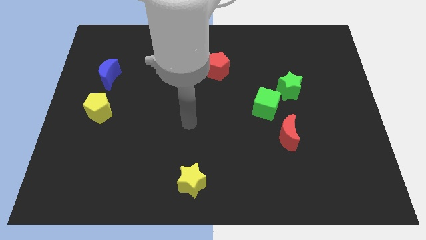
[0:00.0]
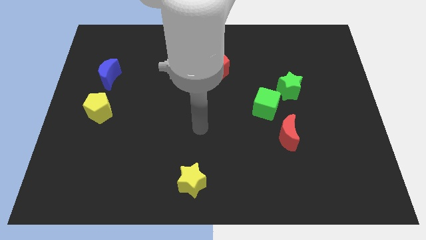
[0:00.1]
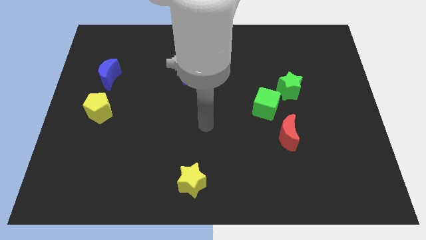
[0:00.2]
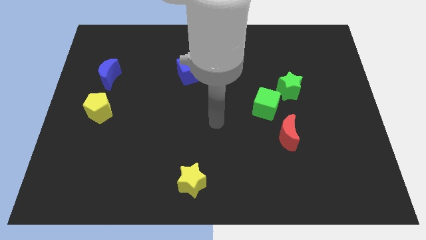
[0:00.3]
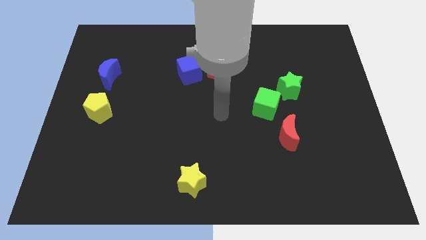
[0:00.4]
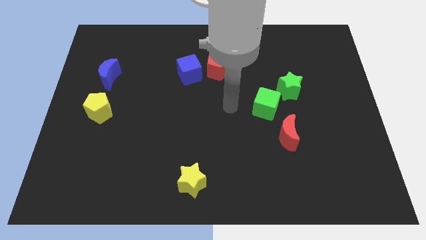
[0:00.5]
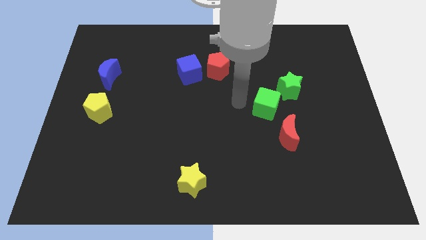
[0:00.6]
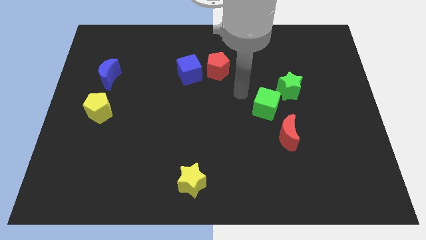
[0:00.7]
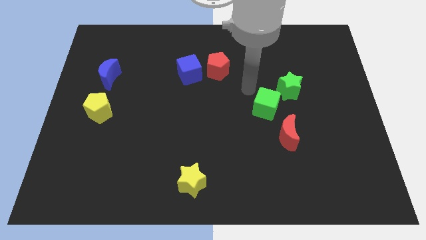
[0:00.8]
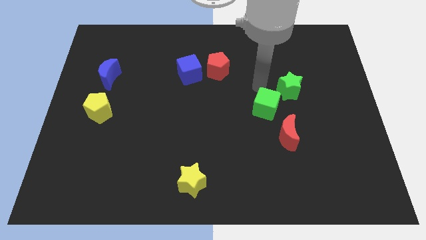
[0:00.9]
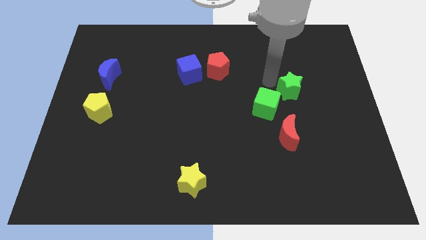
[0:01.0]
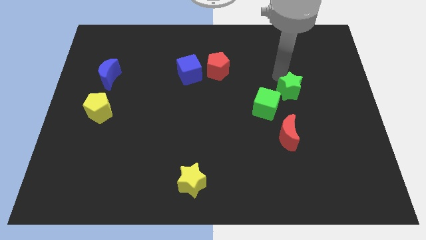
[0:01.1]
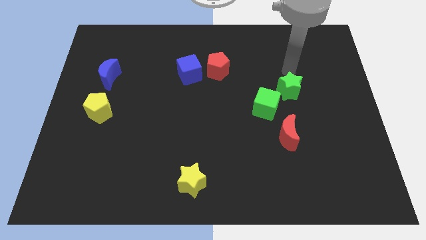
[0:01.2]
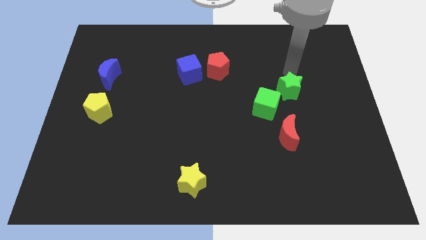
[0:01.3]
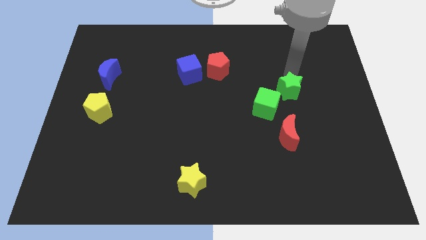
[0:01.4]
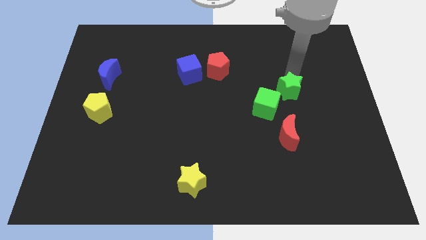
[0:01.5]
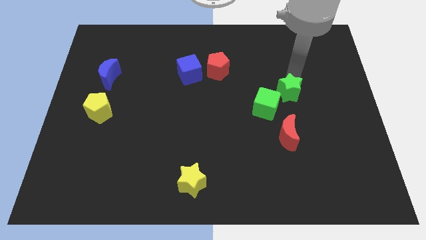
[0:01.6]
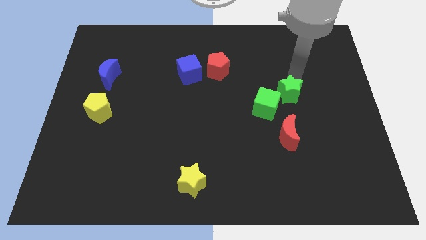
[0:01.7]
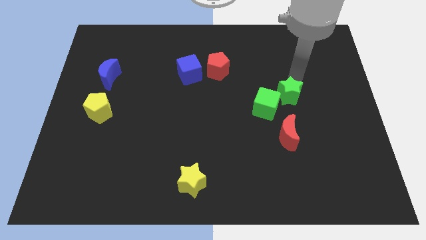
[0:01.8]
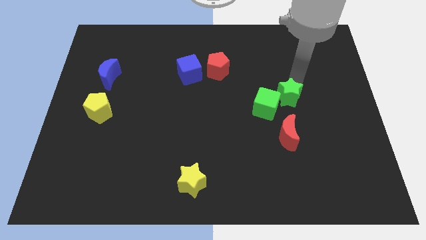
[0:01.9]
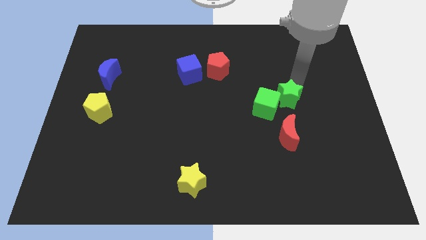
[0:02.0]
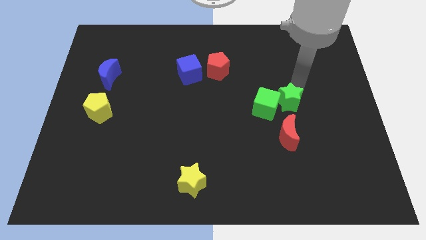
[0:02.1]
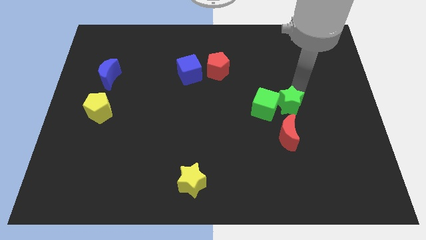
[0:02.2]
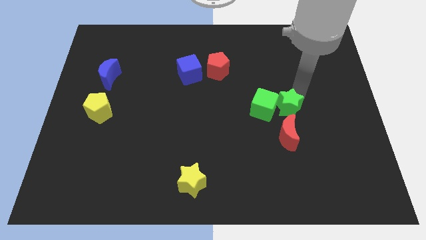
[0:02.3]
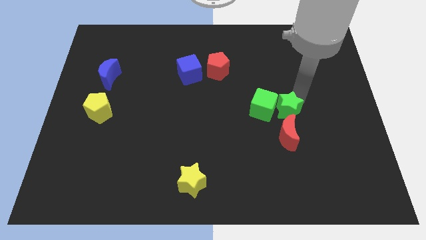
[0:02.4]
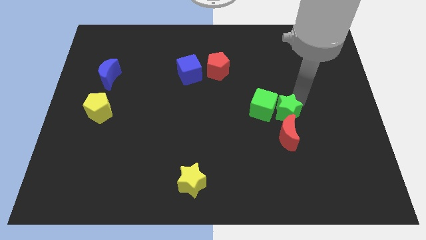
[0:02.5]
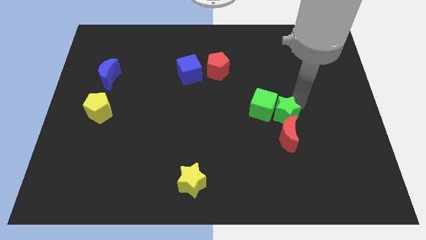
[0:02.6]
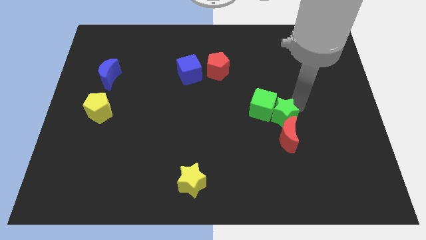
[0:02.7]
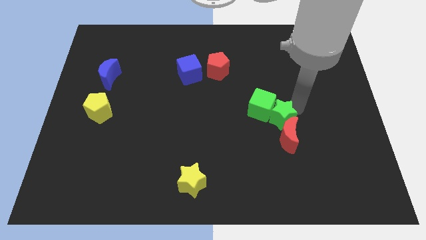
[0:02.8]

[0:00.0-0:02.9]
slightly slide the green star diagonally downwards and left

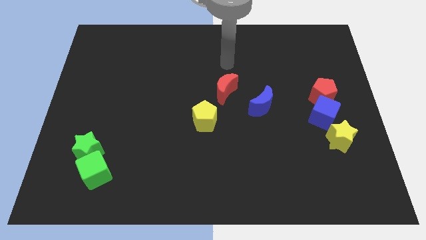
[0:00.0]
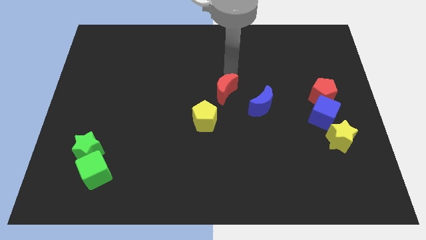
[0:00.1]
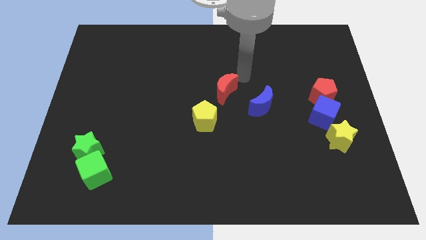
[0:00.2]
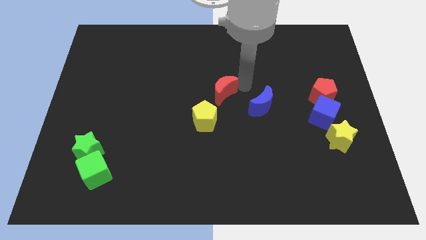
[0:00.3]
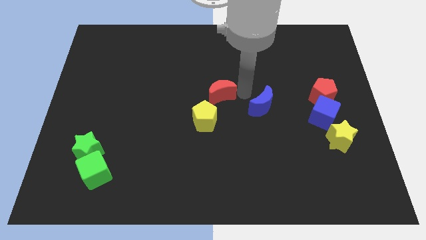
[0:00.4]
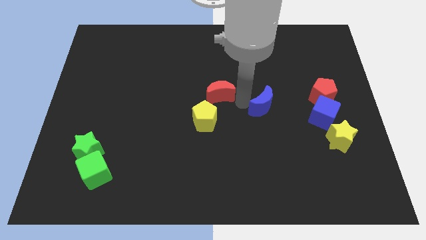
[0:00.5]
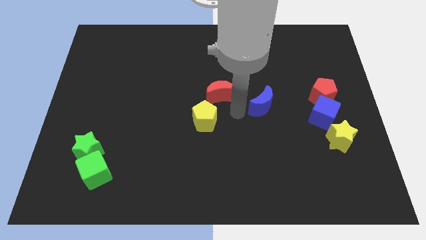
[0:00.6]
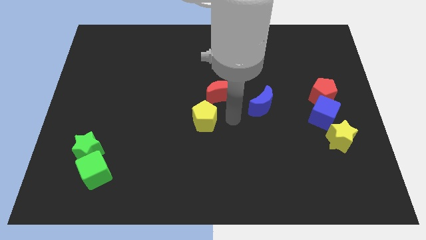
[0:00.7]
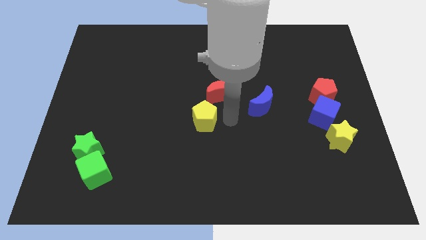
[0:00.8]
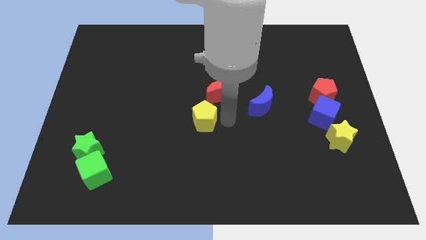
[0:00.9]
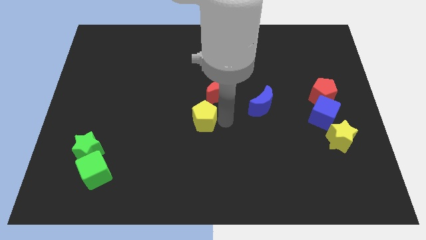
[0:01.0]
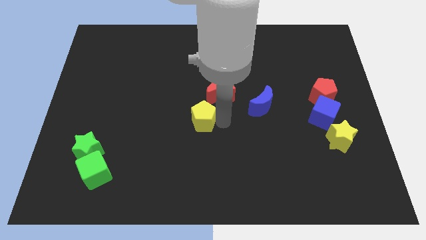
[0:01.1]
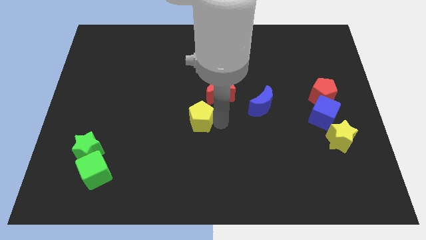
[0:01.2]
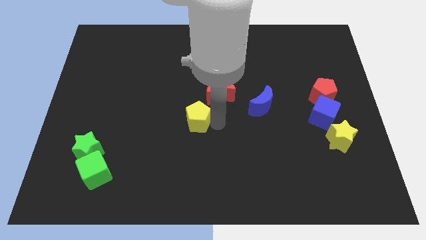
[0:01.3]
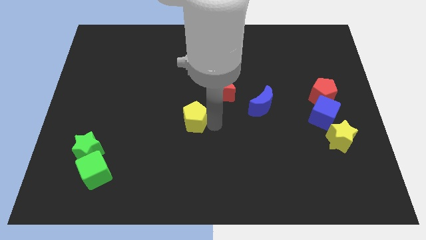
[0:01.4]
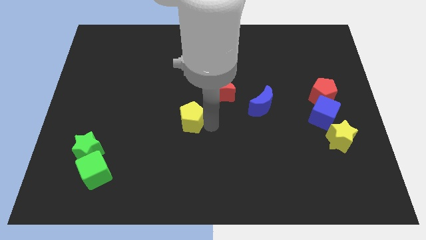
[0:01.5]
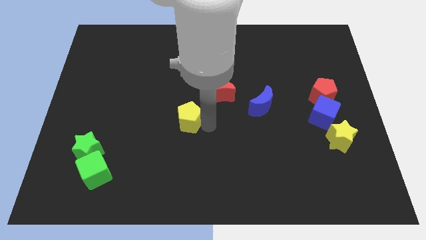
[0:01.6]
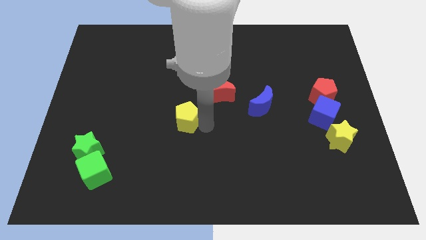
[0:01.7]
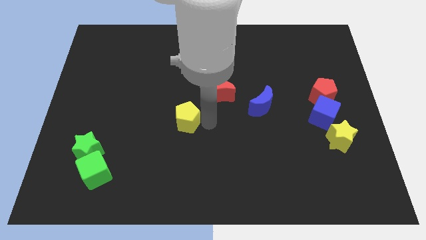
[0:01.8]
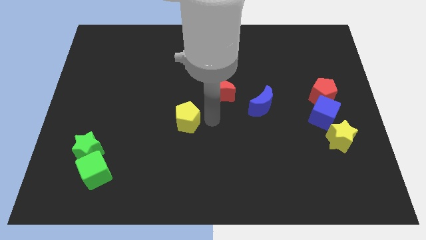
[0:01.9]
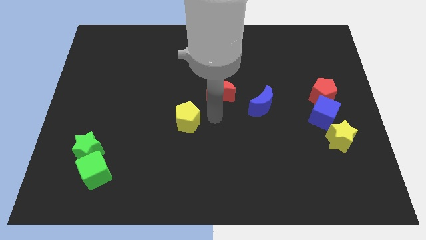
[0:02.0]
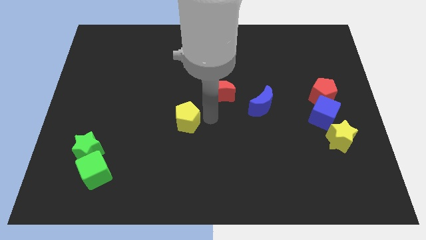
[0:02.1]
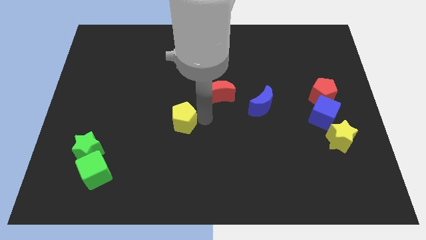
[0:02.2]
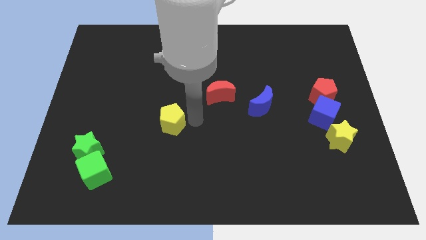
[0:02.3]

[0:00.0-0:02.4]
slightly push the yellow pentagon left

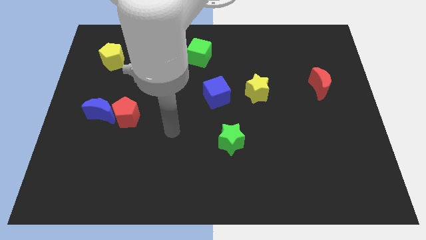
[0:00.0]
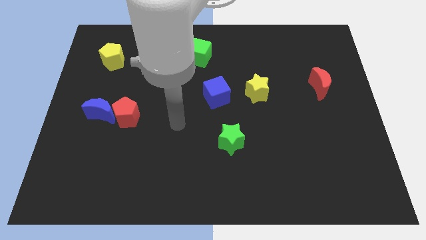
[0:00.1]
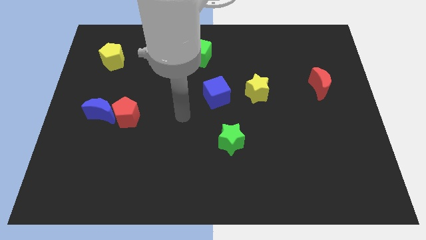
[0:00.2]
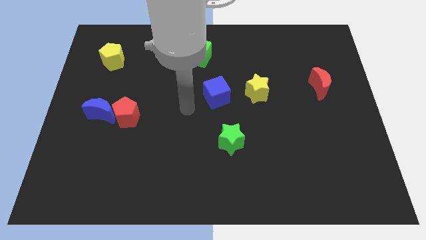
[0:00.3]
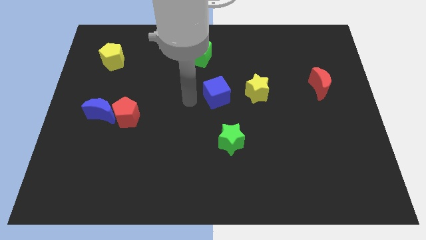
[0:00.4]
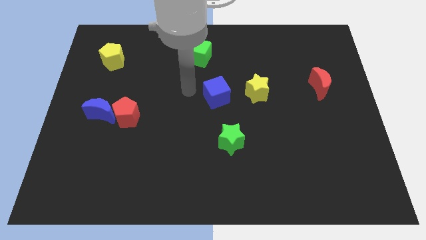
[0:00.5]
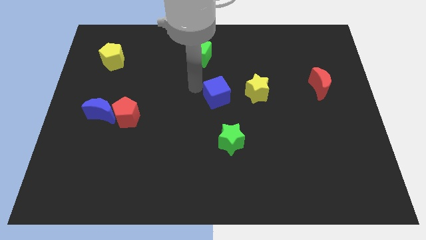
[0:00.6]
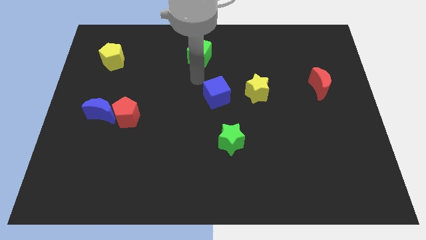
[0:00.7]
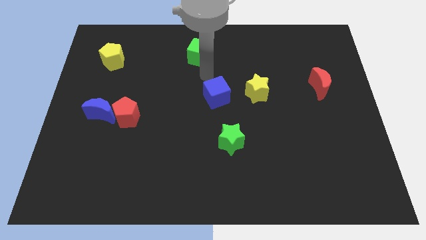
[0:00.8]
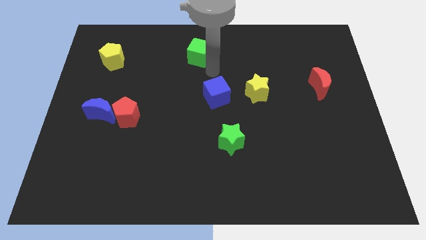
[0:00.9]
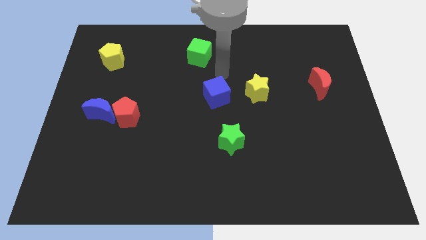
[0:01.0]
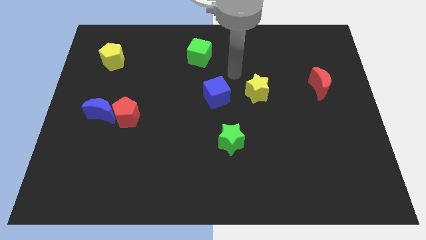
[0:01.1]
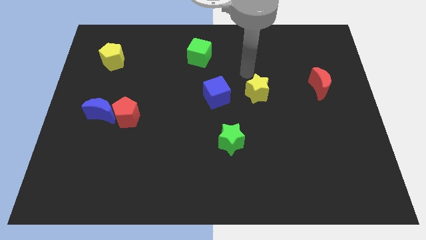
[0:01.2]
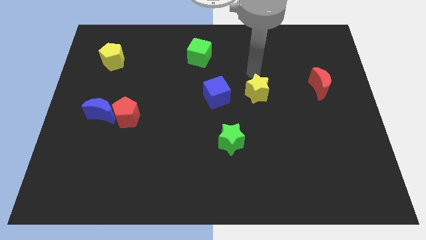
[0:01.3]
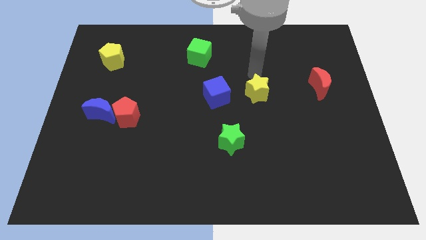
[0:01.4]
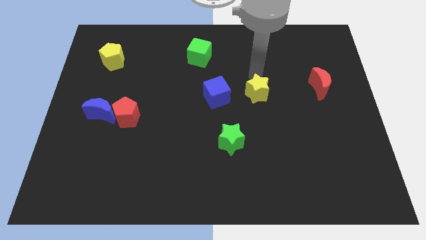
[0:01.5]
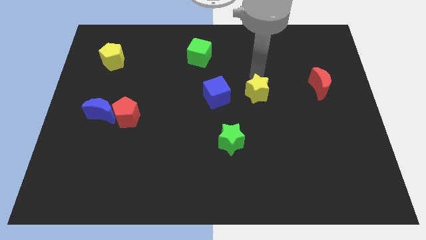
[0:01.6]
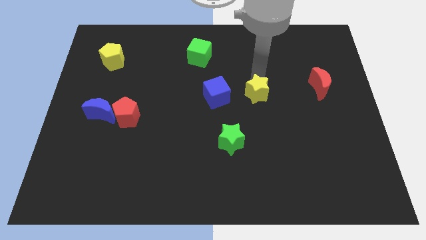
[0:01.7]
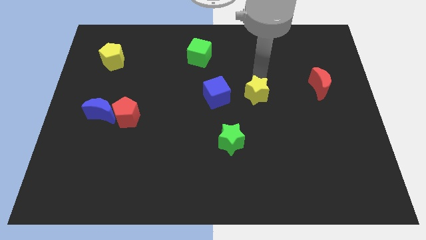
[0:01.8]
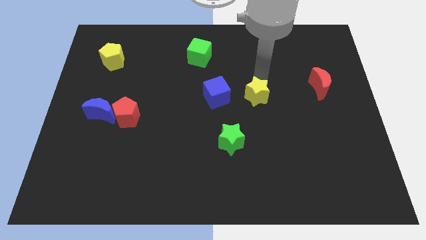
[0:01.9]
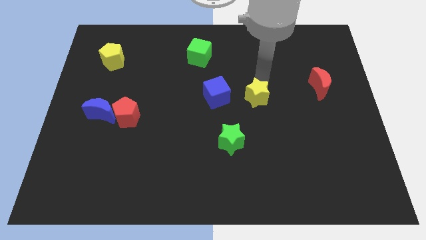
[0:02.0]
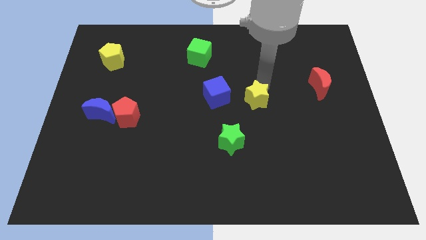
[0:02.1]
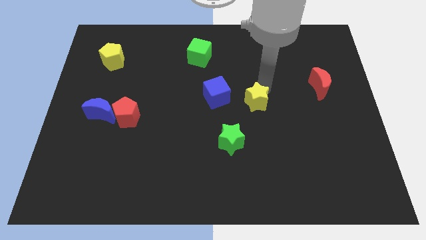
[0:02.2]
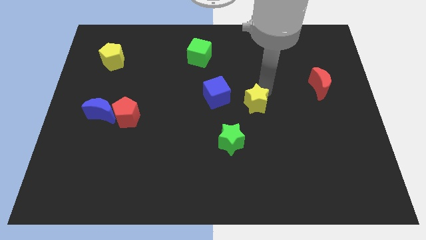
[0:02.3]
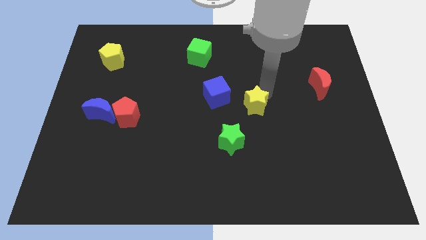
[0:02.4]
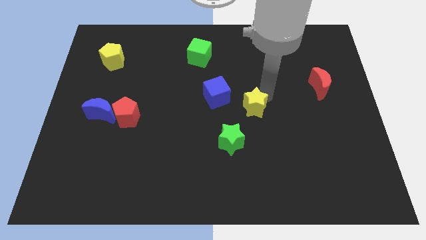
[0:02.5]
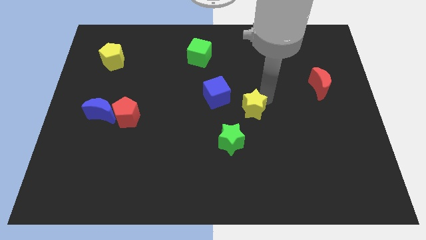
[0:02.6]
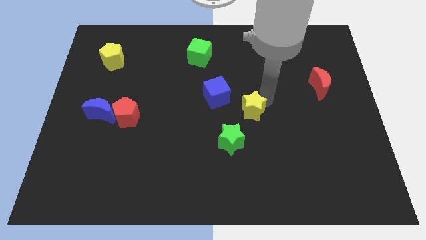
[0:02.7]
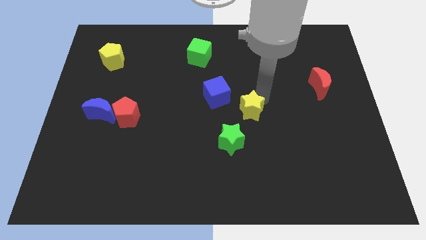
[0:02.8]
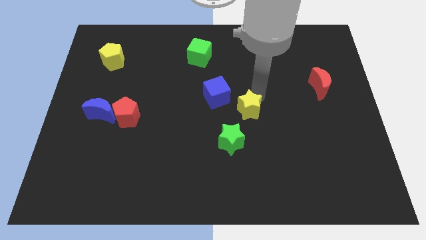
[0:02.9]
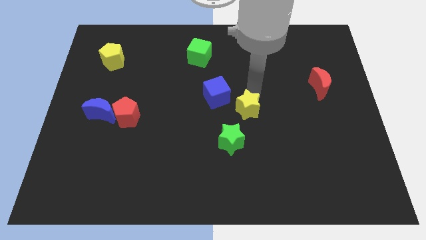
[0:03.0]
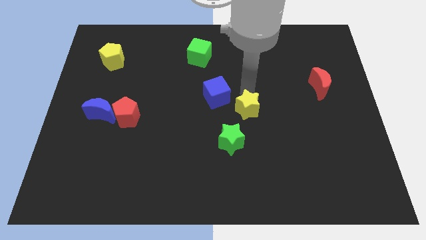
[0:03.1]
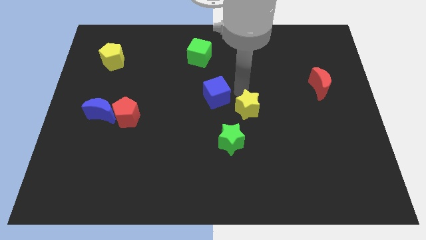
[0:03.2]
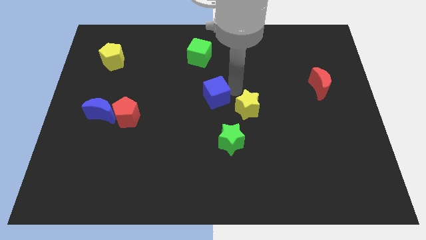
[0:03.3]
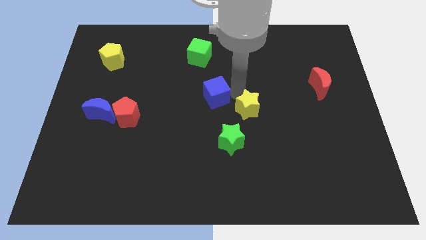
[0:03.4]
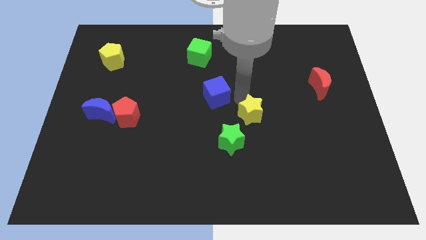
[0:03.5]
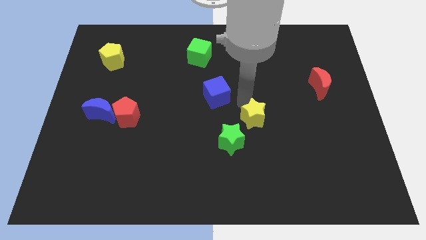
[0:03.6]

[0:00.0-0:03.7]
push the yellow star slightly downwards
